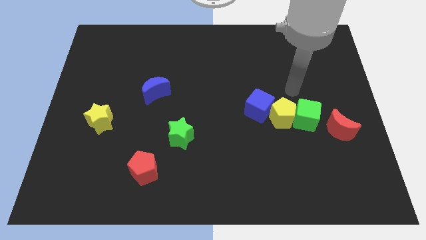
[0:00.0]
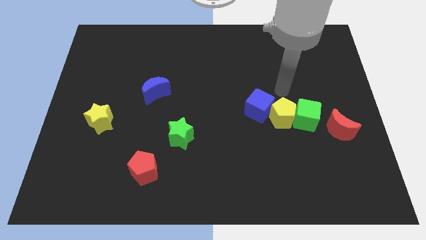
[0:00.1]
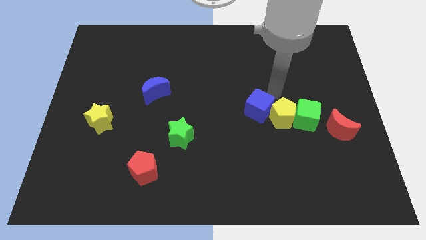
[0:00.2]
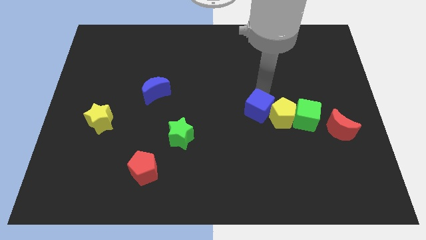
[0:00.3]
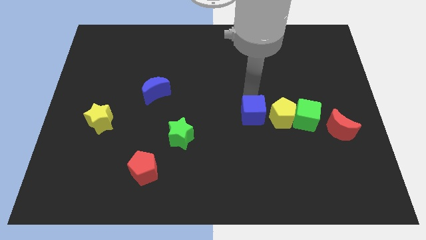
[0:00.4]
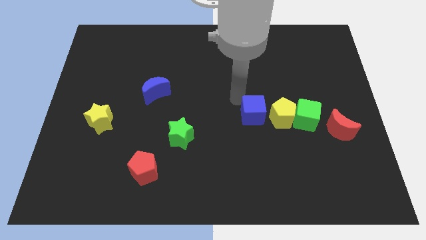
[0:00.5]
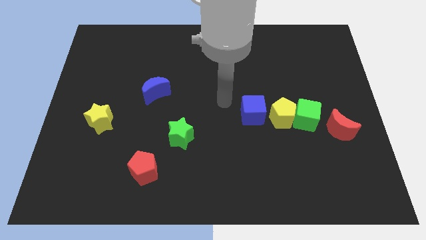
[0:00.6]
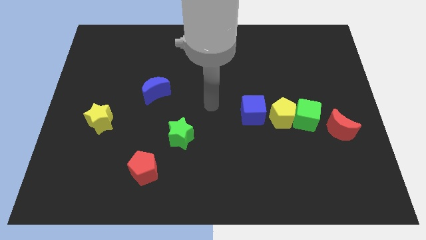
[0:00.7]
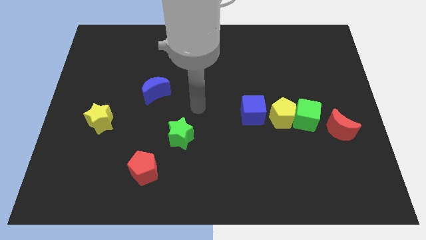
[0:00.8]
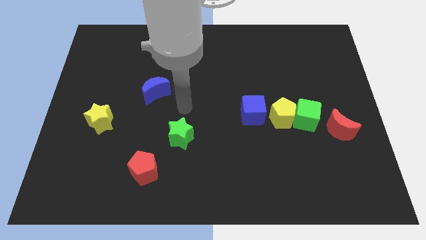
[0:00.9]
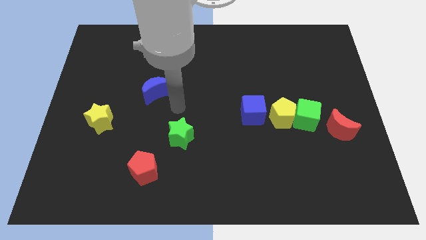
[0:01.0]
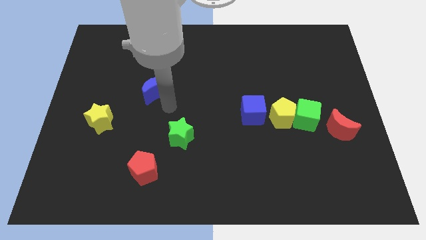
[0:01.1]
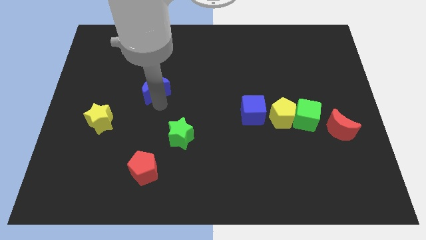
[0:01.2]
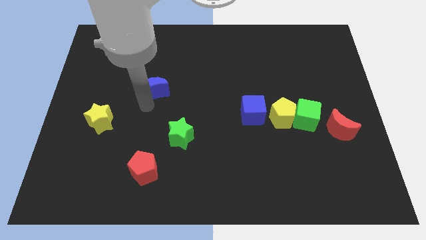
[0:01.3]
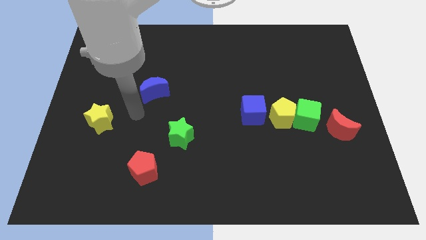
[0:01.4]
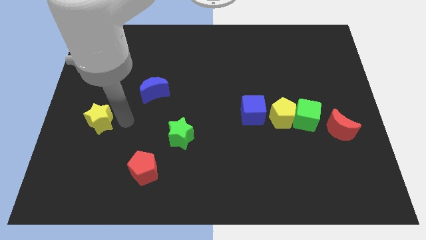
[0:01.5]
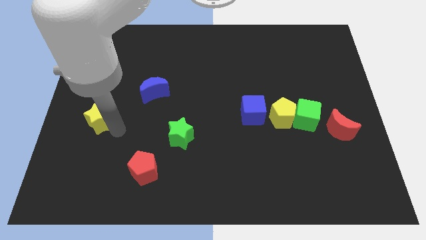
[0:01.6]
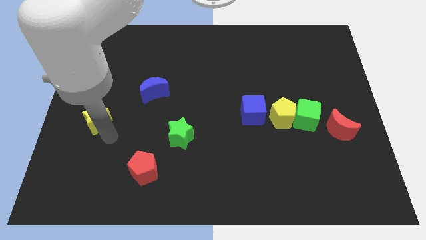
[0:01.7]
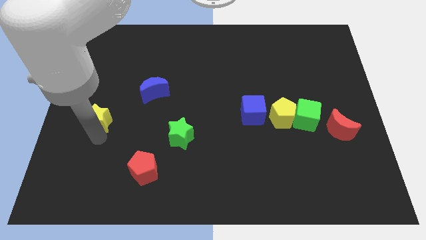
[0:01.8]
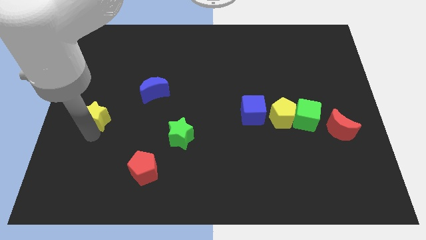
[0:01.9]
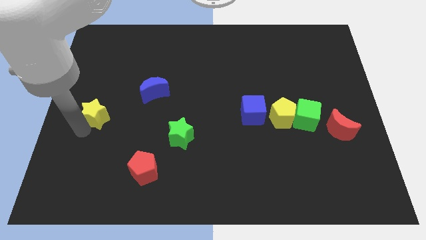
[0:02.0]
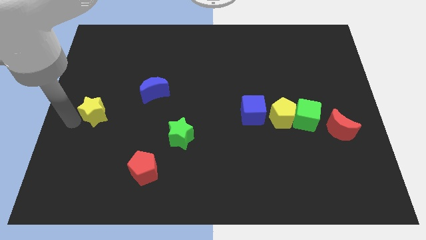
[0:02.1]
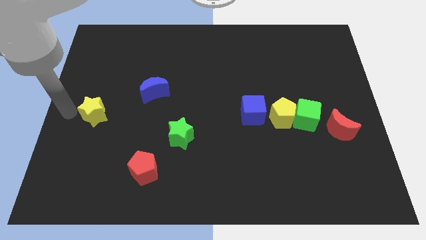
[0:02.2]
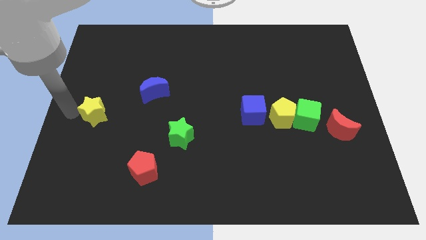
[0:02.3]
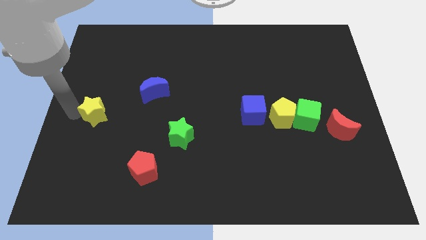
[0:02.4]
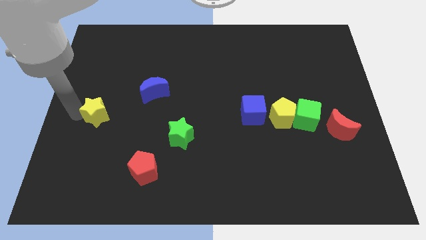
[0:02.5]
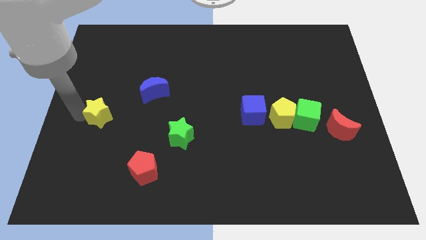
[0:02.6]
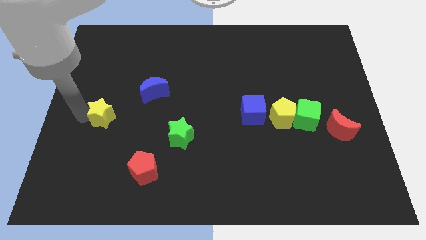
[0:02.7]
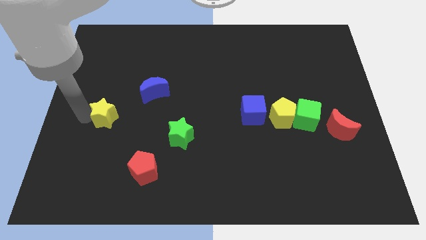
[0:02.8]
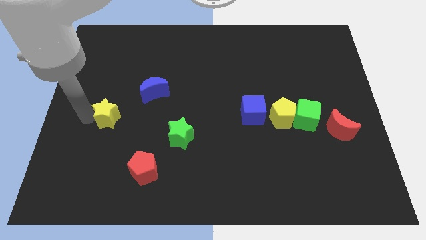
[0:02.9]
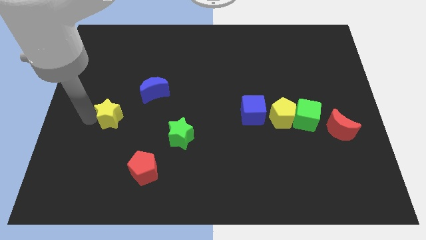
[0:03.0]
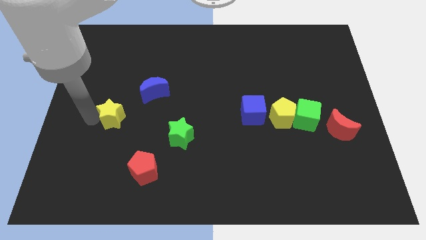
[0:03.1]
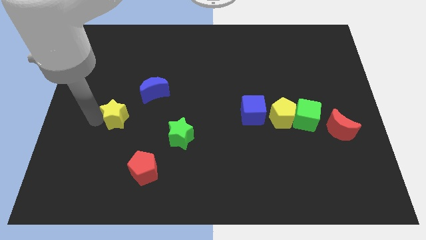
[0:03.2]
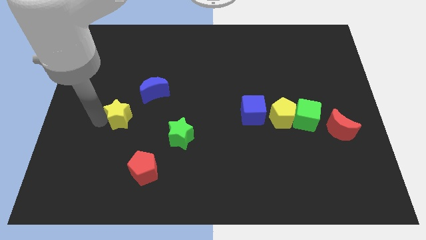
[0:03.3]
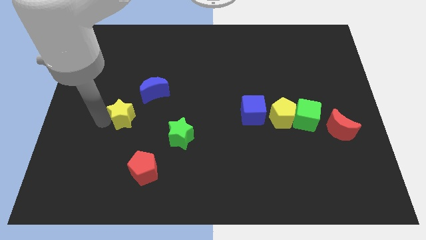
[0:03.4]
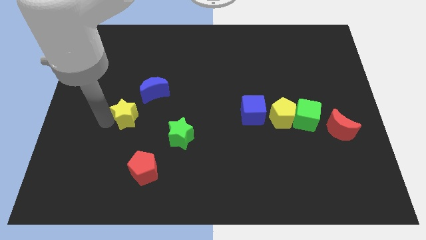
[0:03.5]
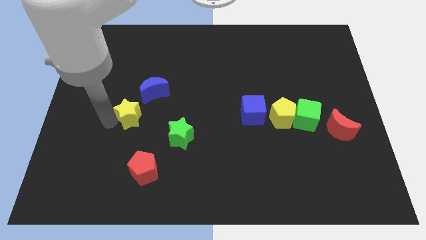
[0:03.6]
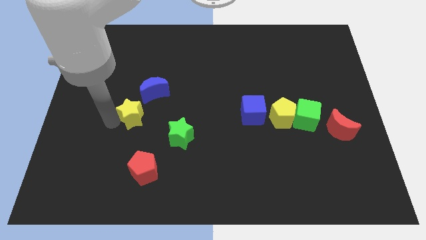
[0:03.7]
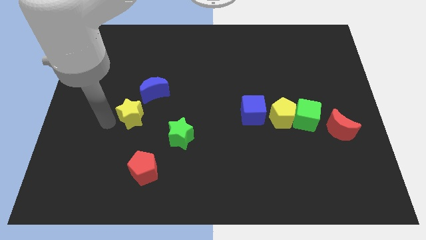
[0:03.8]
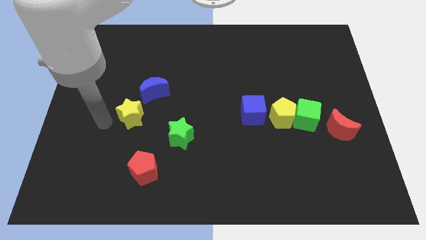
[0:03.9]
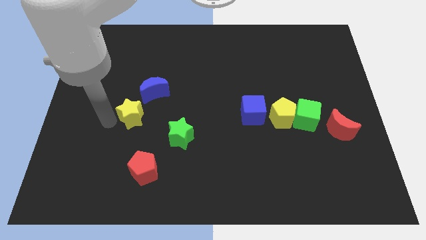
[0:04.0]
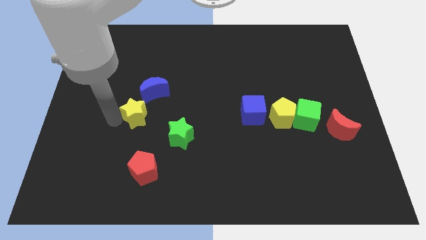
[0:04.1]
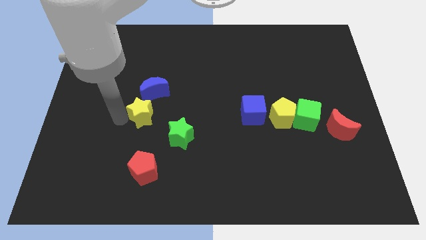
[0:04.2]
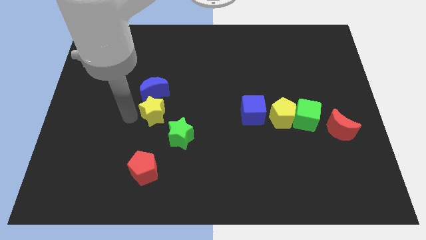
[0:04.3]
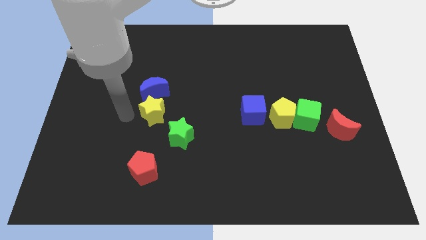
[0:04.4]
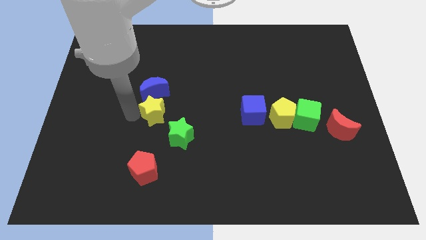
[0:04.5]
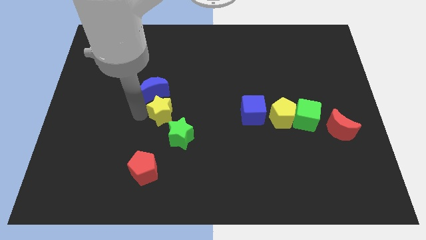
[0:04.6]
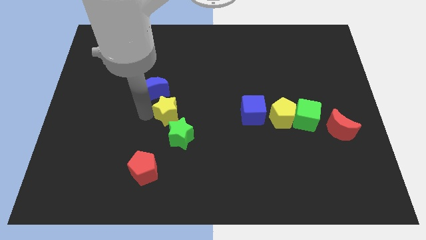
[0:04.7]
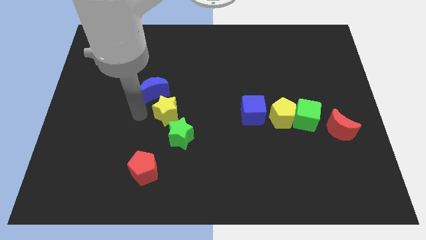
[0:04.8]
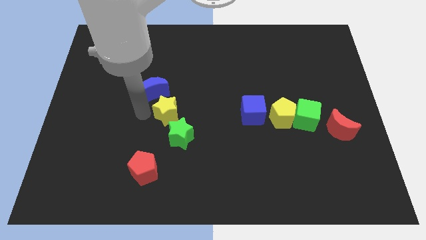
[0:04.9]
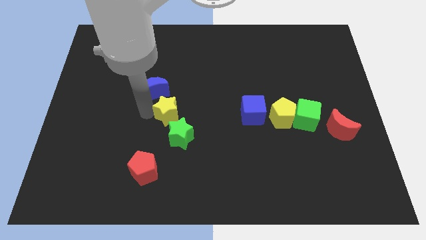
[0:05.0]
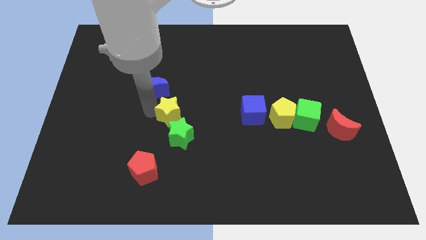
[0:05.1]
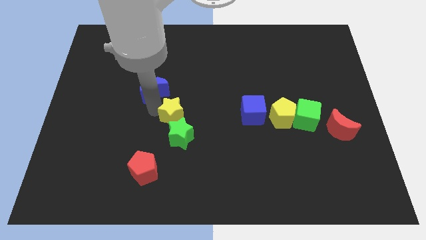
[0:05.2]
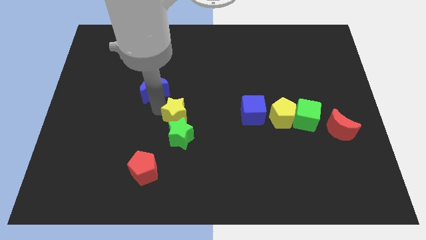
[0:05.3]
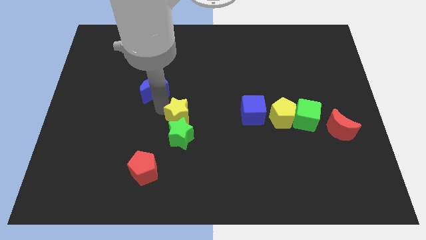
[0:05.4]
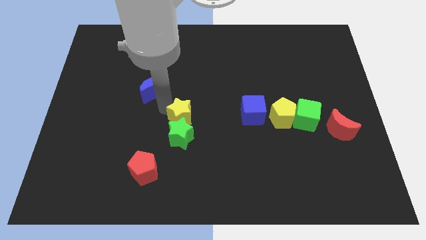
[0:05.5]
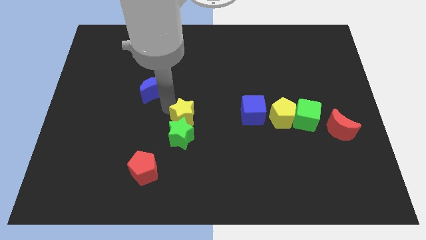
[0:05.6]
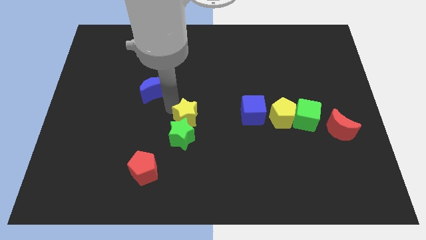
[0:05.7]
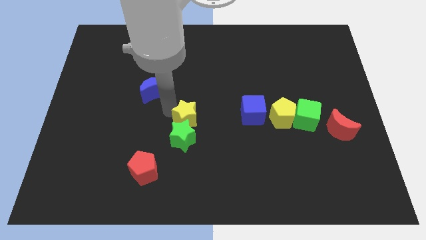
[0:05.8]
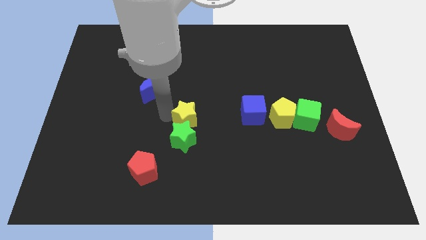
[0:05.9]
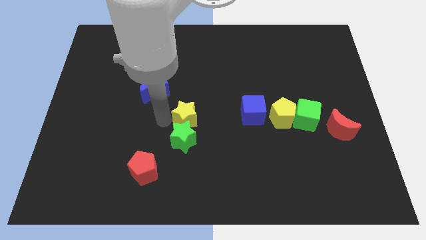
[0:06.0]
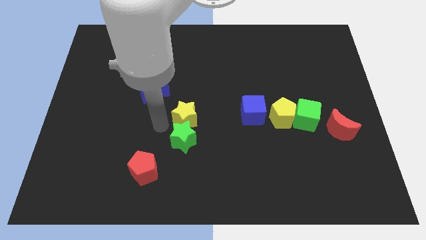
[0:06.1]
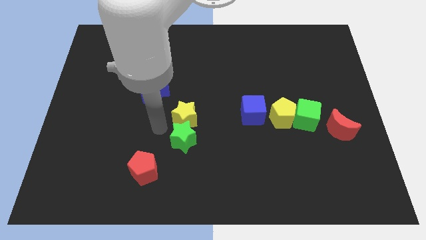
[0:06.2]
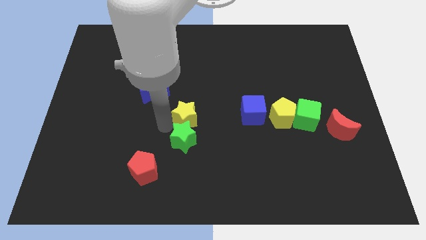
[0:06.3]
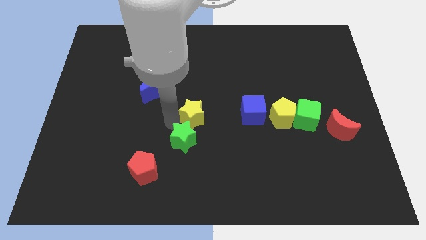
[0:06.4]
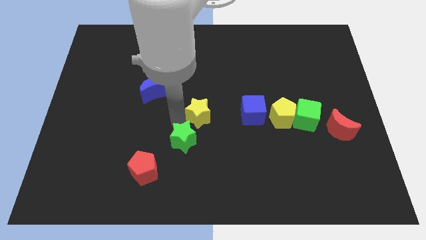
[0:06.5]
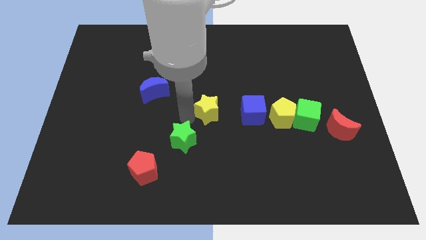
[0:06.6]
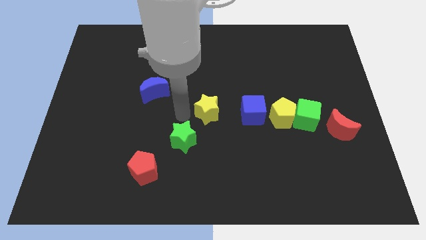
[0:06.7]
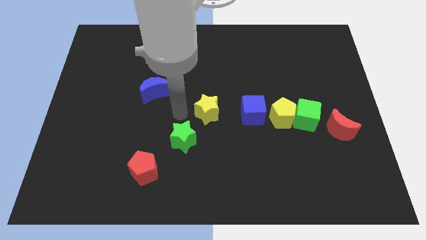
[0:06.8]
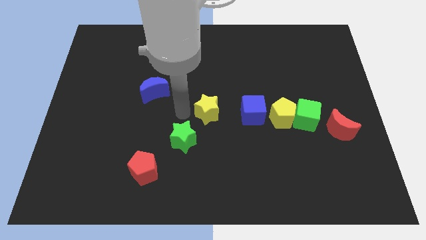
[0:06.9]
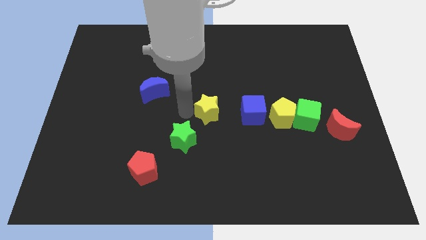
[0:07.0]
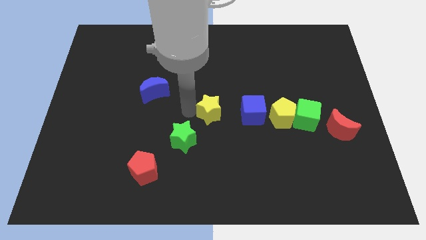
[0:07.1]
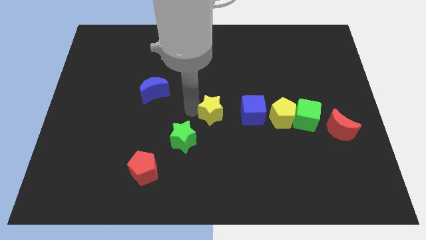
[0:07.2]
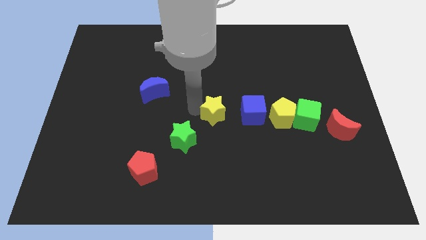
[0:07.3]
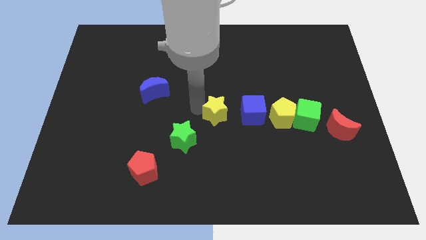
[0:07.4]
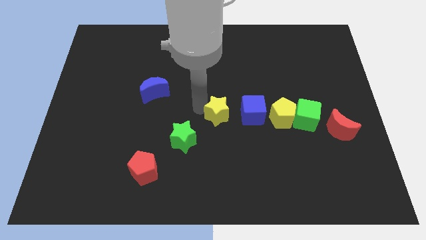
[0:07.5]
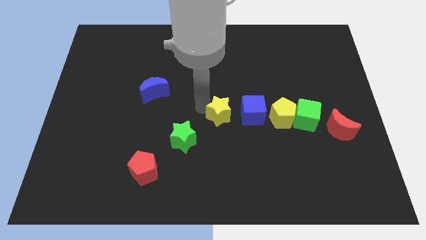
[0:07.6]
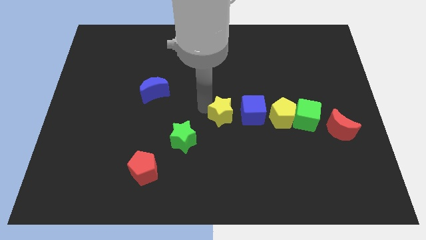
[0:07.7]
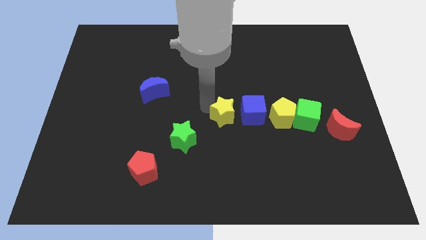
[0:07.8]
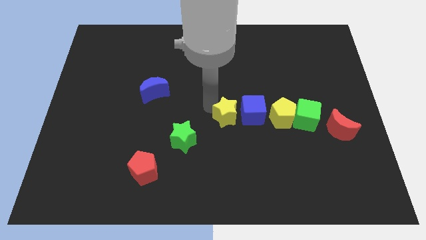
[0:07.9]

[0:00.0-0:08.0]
slide the yellow star to the blue cube
